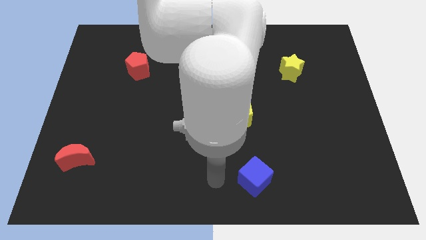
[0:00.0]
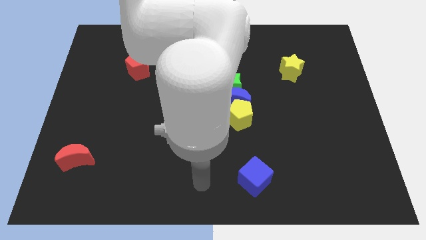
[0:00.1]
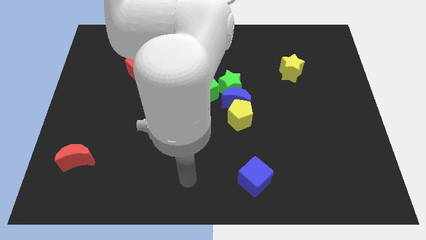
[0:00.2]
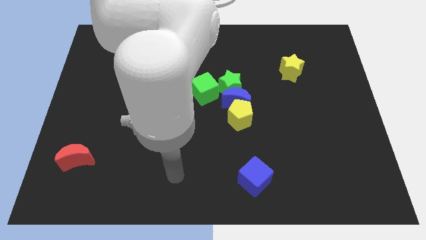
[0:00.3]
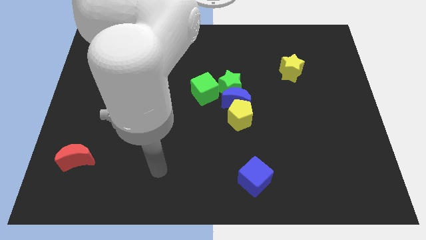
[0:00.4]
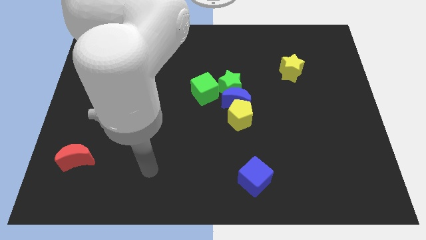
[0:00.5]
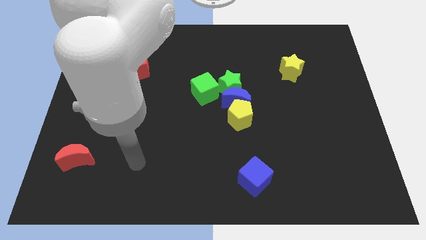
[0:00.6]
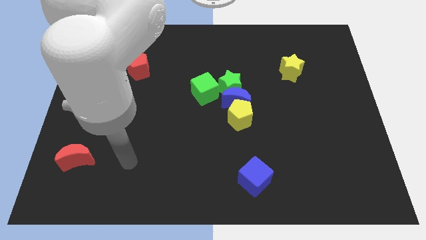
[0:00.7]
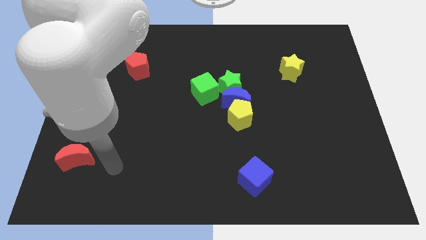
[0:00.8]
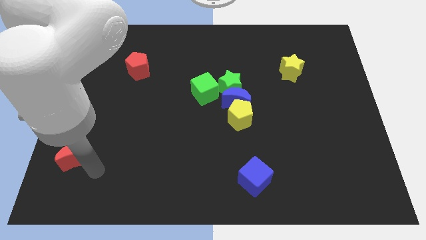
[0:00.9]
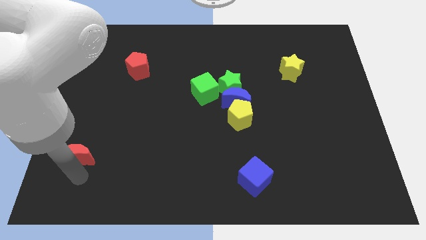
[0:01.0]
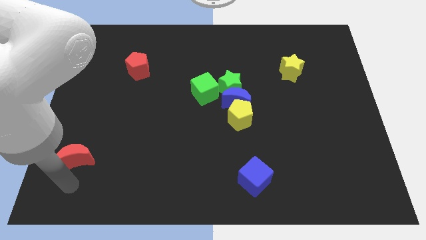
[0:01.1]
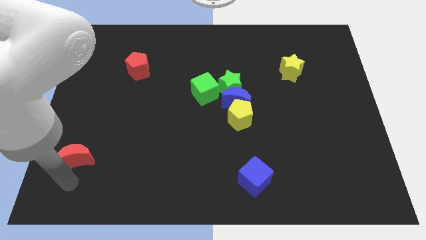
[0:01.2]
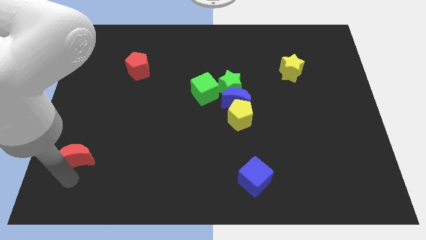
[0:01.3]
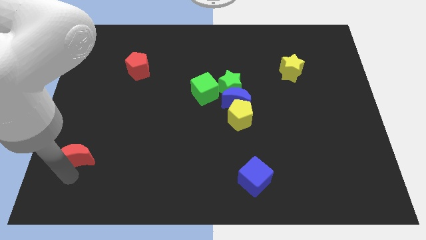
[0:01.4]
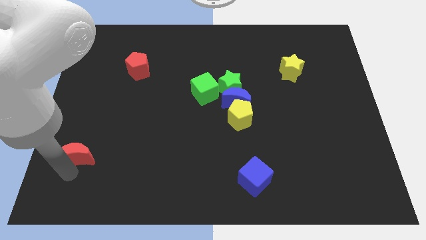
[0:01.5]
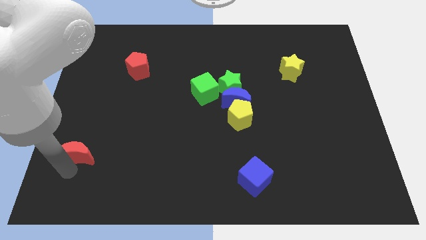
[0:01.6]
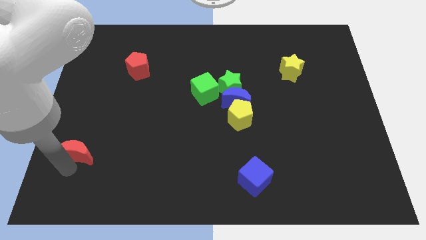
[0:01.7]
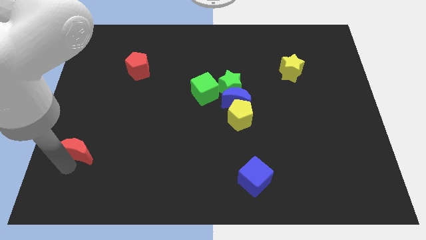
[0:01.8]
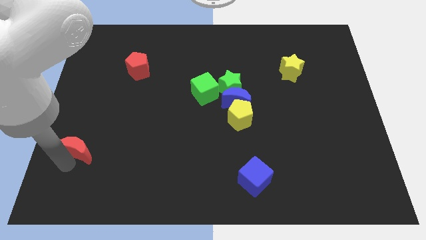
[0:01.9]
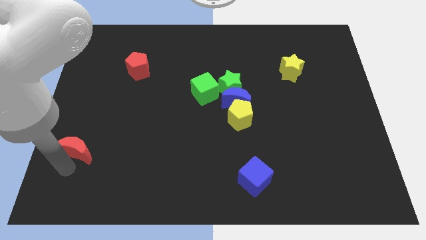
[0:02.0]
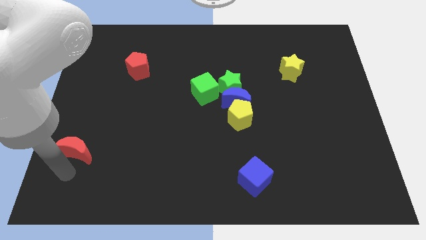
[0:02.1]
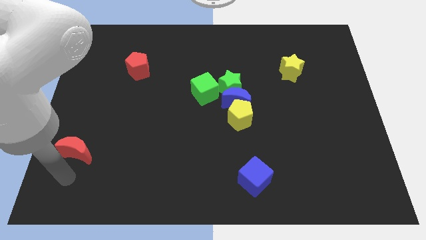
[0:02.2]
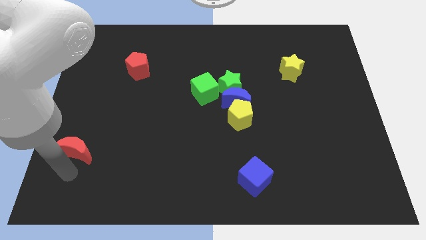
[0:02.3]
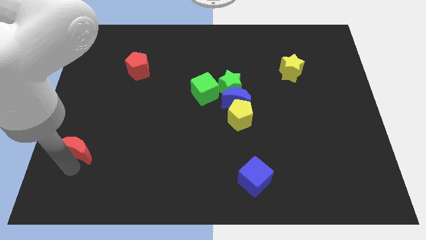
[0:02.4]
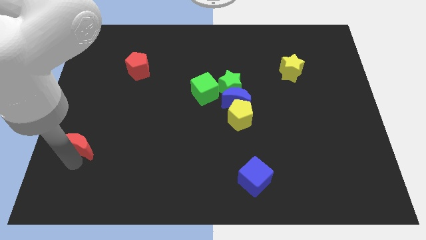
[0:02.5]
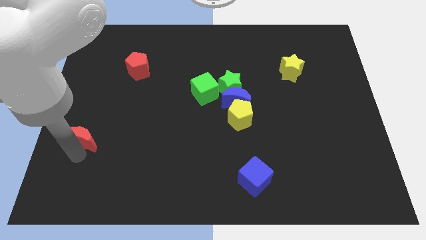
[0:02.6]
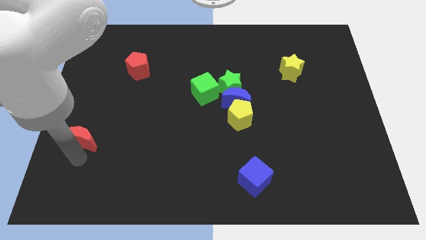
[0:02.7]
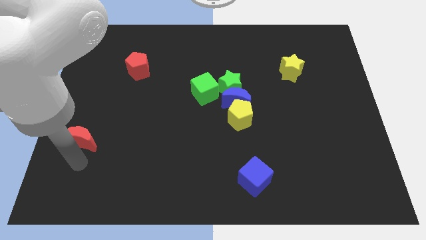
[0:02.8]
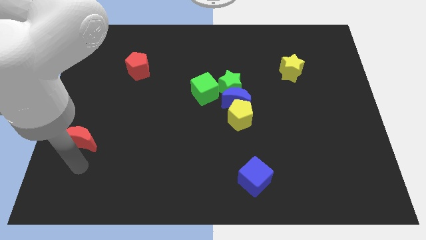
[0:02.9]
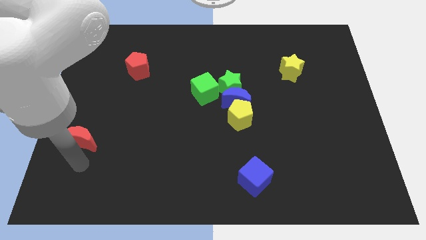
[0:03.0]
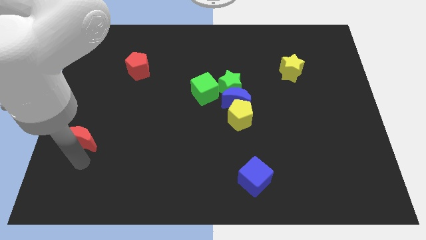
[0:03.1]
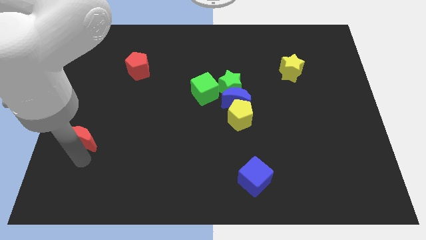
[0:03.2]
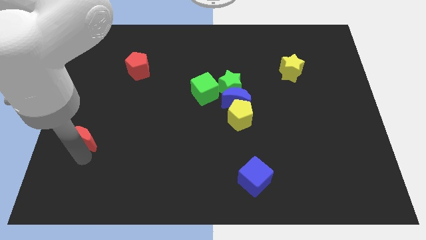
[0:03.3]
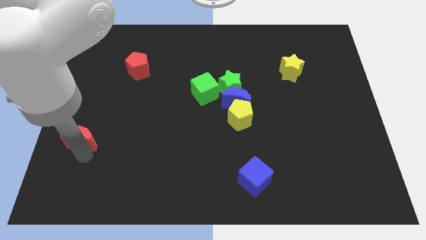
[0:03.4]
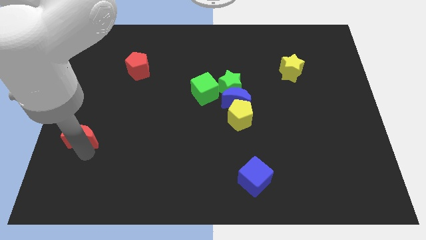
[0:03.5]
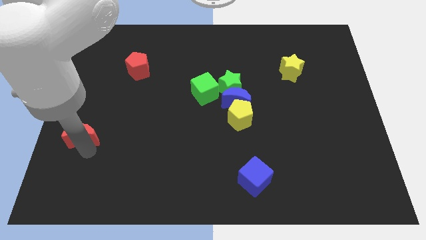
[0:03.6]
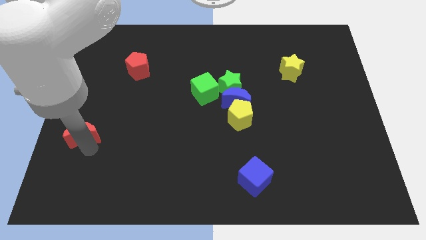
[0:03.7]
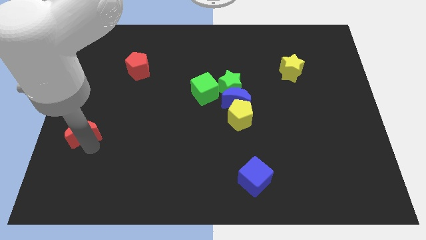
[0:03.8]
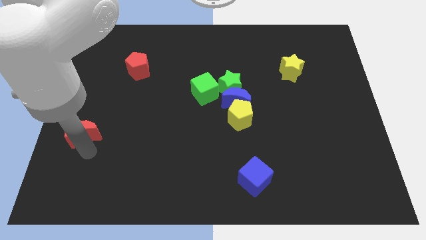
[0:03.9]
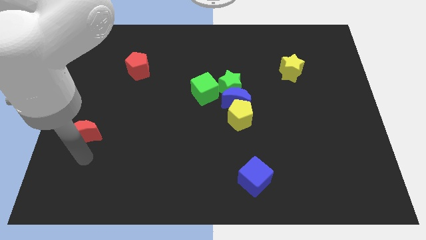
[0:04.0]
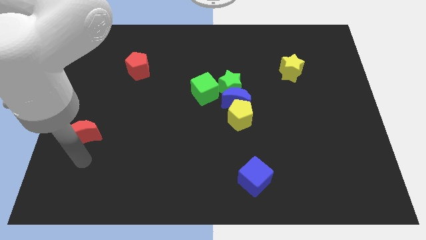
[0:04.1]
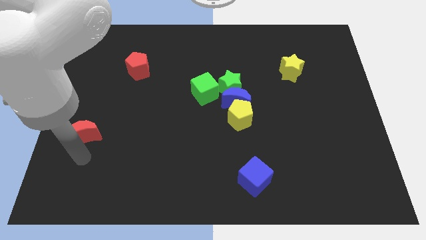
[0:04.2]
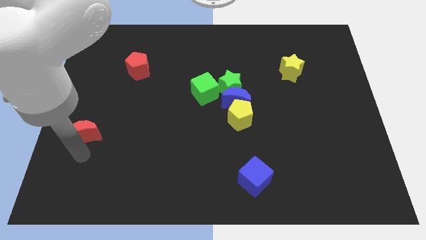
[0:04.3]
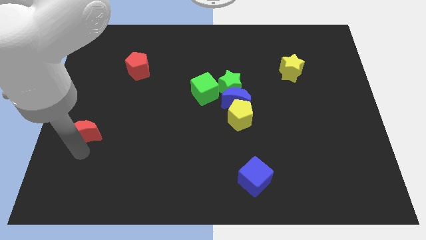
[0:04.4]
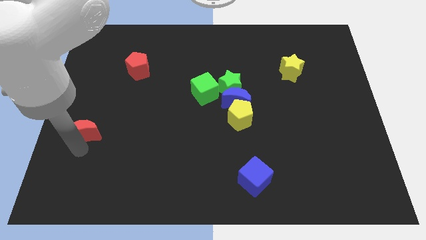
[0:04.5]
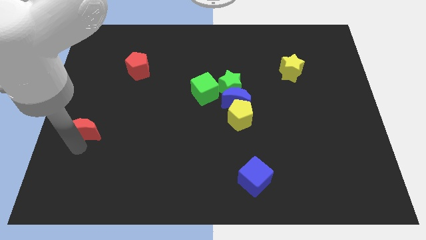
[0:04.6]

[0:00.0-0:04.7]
slide the red moon up a little

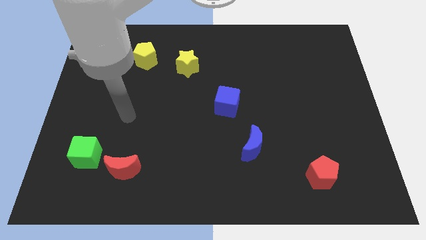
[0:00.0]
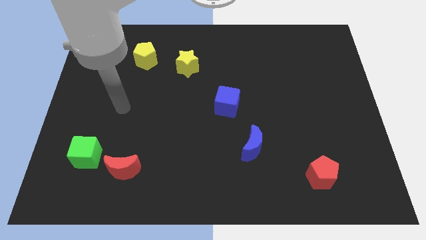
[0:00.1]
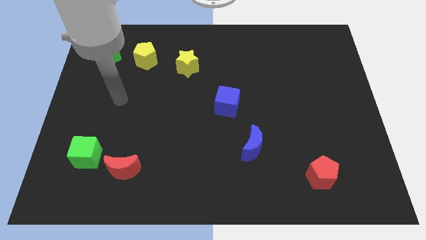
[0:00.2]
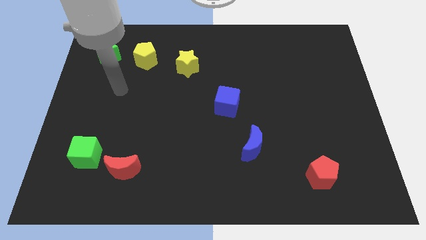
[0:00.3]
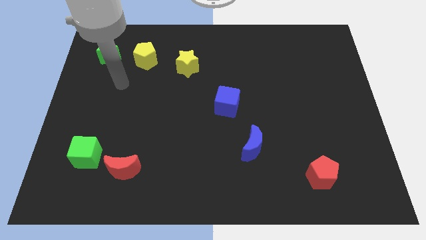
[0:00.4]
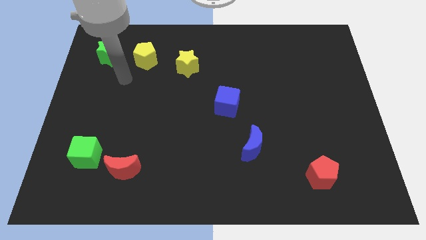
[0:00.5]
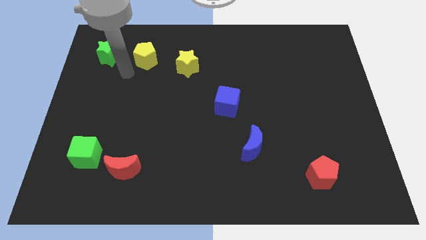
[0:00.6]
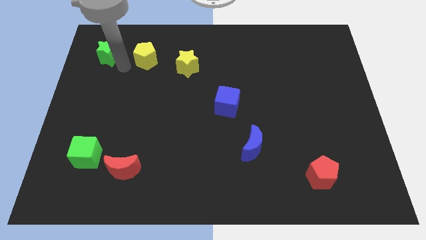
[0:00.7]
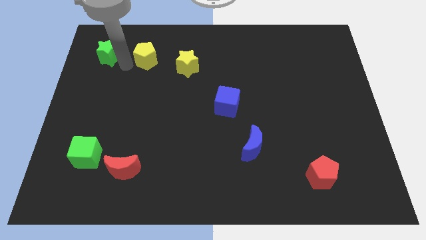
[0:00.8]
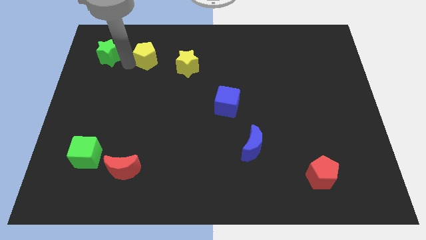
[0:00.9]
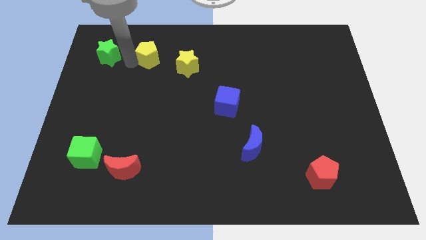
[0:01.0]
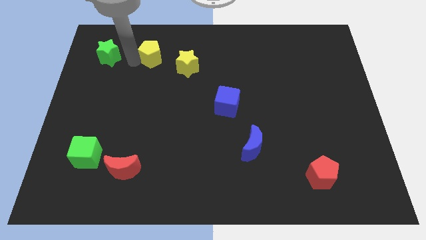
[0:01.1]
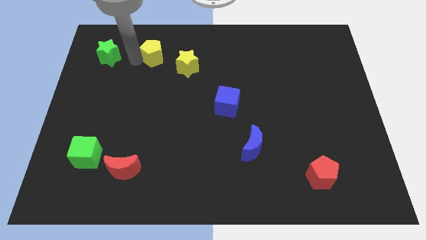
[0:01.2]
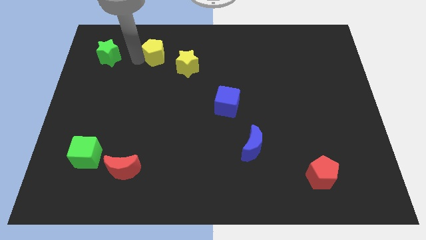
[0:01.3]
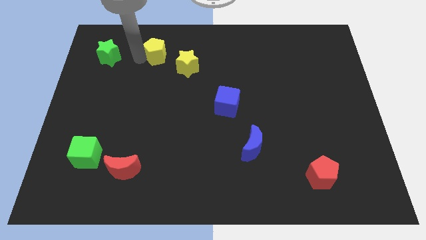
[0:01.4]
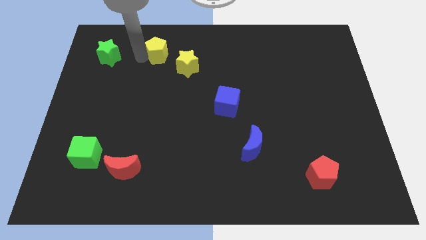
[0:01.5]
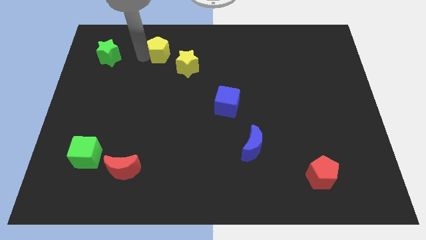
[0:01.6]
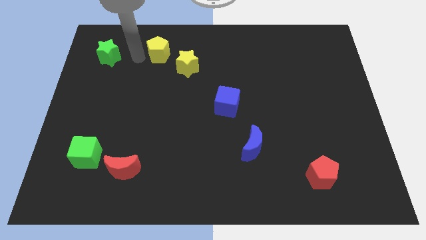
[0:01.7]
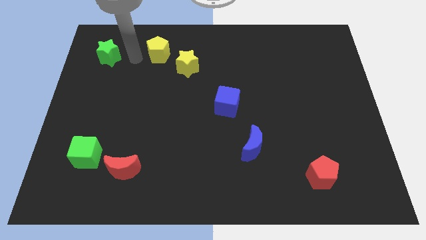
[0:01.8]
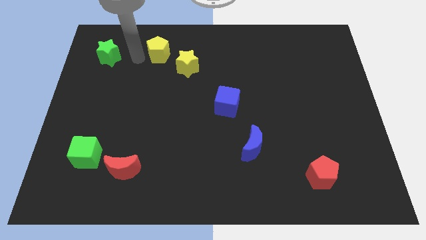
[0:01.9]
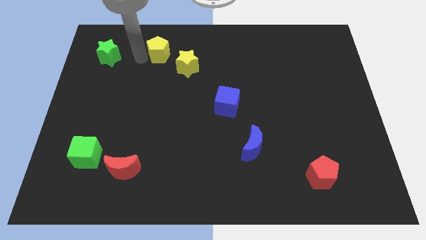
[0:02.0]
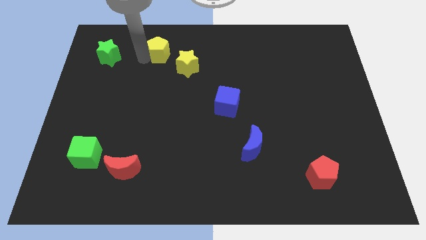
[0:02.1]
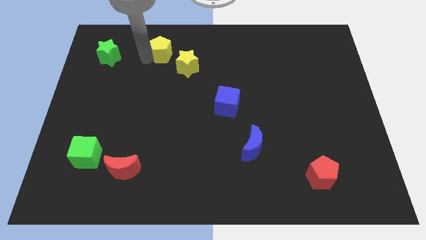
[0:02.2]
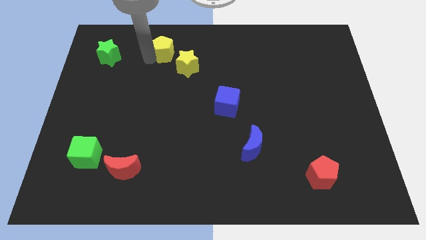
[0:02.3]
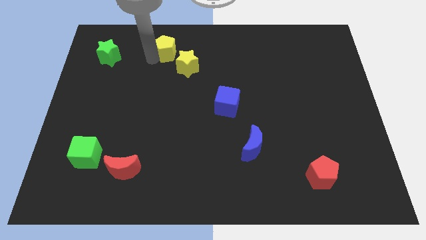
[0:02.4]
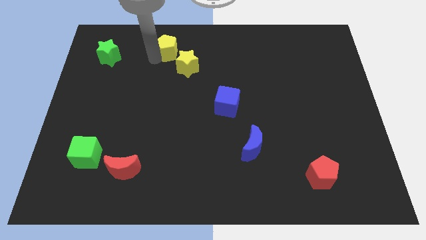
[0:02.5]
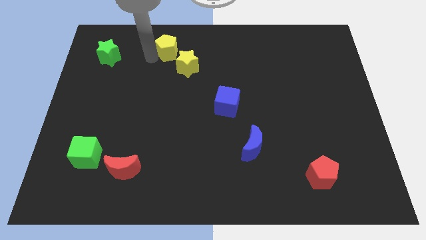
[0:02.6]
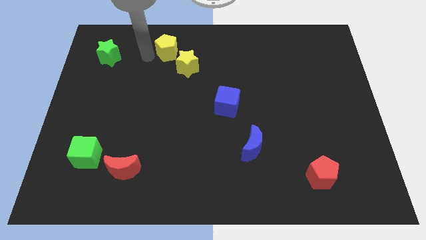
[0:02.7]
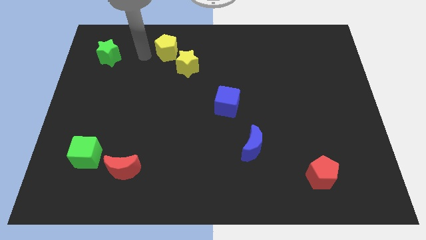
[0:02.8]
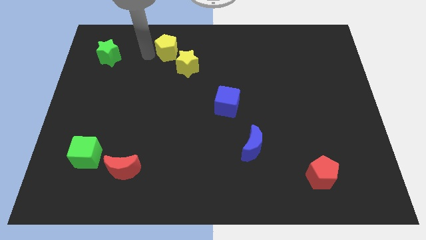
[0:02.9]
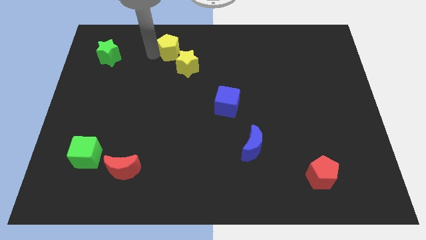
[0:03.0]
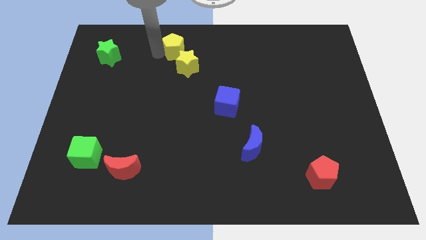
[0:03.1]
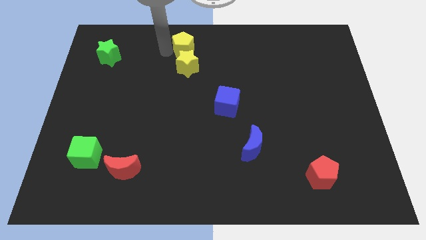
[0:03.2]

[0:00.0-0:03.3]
move the yellow pentagon right a little
